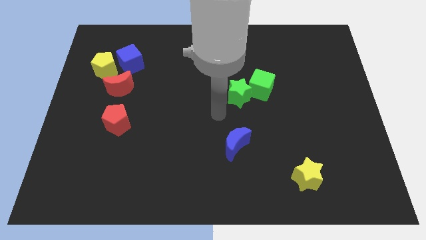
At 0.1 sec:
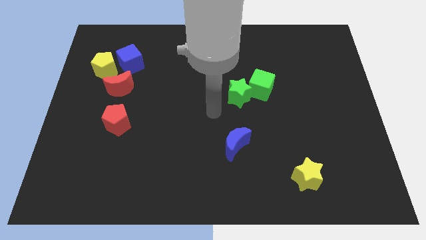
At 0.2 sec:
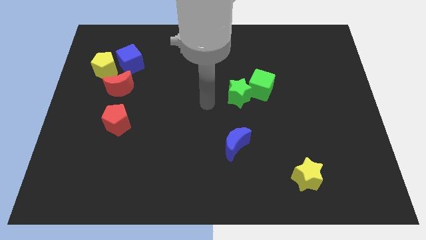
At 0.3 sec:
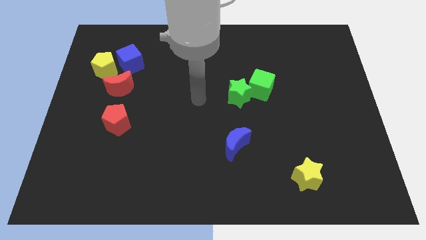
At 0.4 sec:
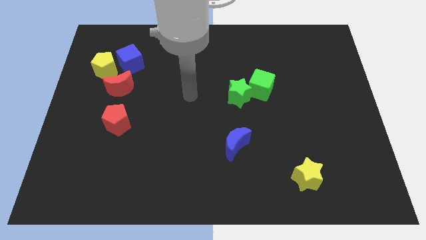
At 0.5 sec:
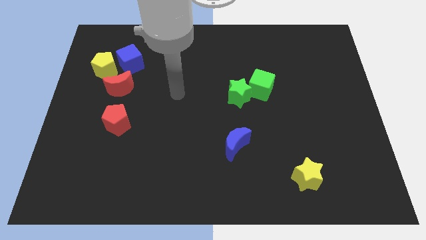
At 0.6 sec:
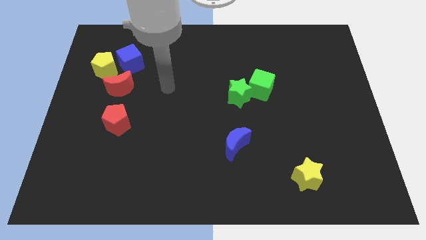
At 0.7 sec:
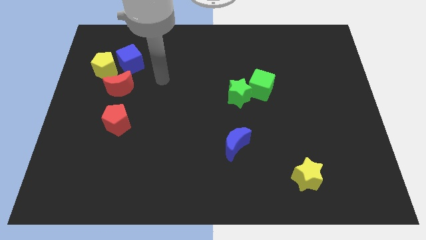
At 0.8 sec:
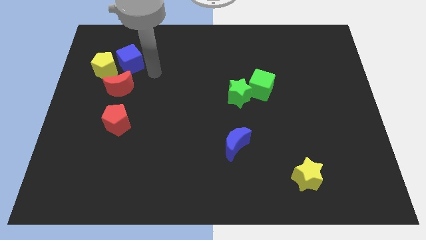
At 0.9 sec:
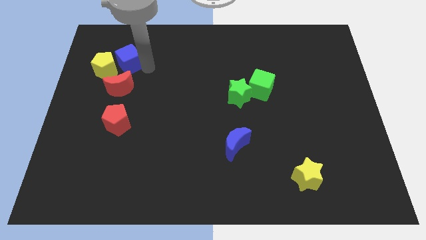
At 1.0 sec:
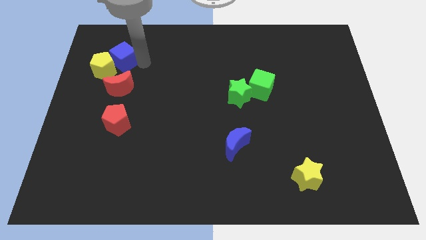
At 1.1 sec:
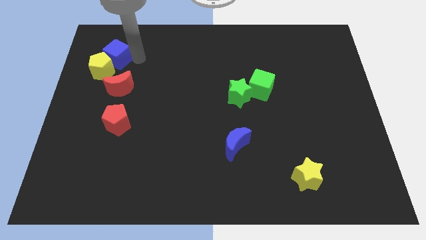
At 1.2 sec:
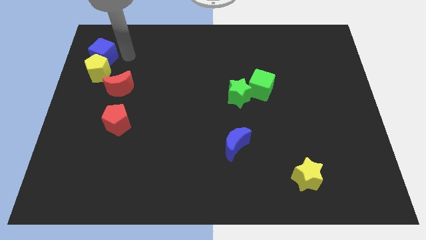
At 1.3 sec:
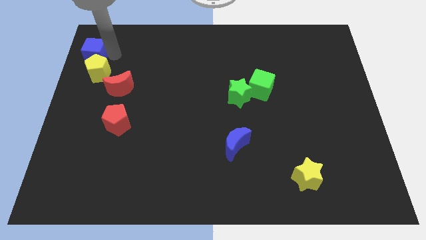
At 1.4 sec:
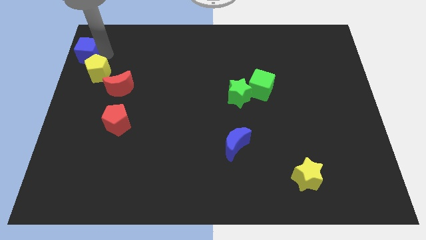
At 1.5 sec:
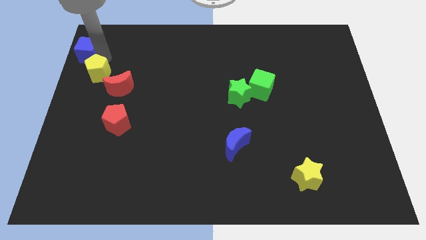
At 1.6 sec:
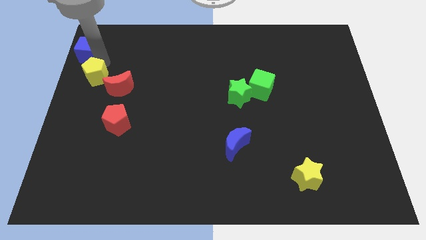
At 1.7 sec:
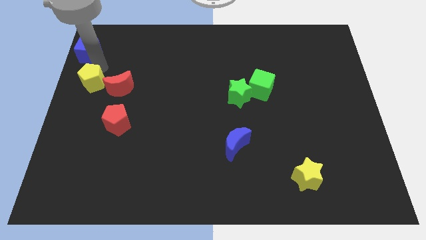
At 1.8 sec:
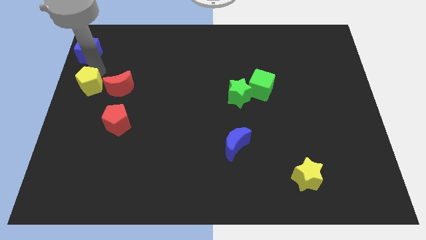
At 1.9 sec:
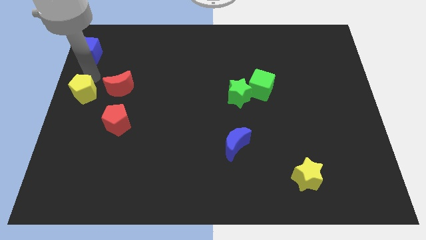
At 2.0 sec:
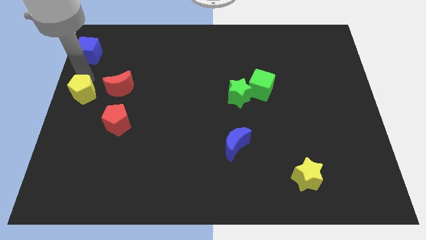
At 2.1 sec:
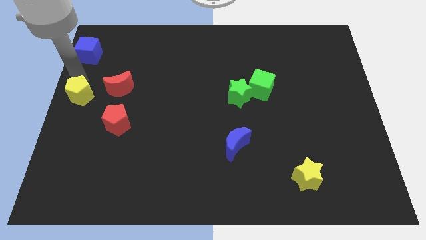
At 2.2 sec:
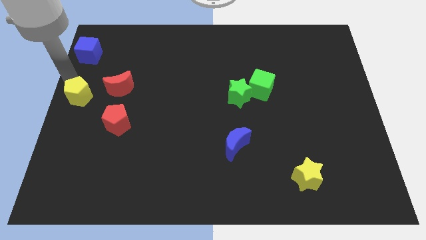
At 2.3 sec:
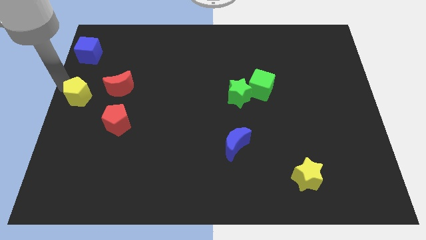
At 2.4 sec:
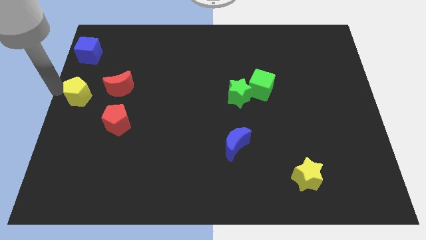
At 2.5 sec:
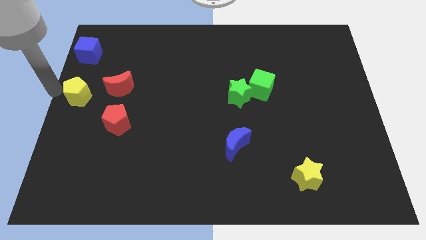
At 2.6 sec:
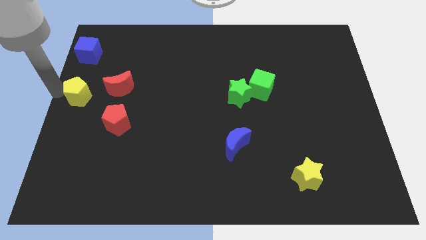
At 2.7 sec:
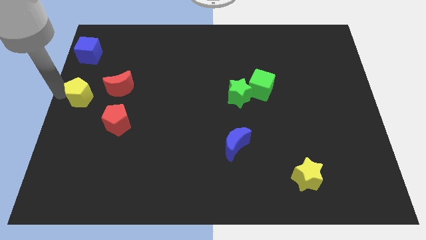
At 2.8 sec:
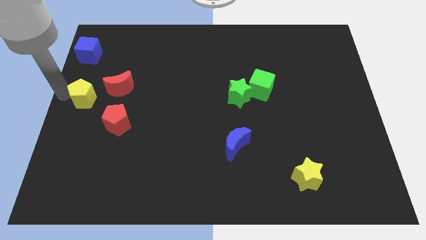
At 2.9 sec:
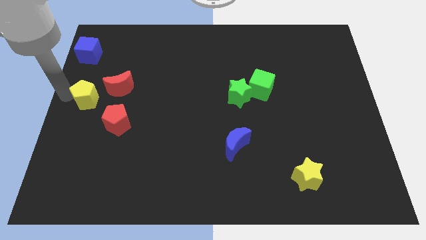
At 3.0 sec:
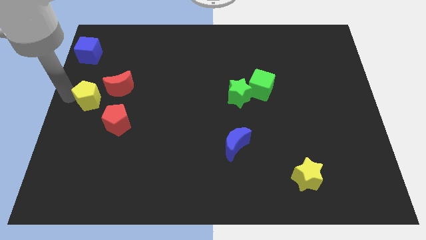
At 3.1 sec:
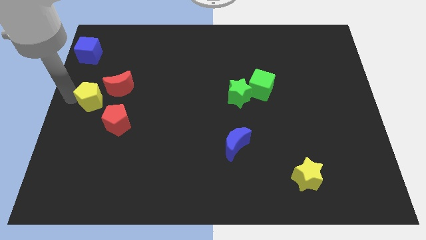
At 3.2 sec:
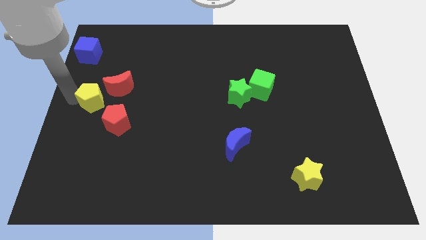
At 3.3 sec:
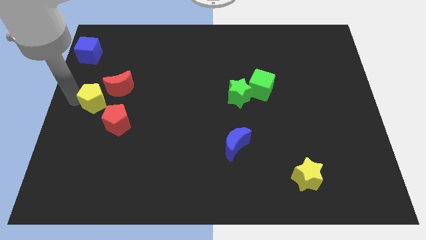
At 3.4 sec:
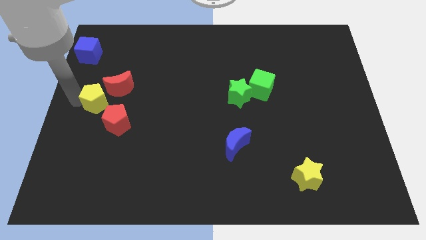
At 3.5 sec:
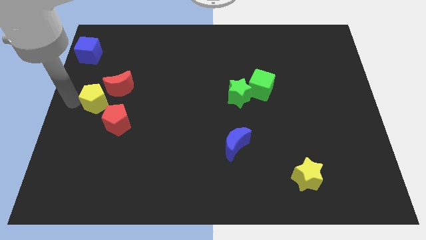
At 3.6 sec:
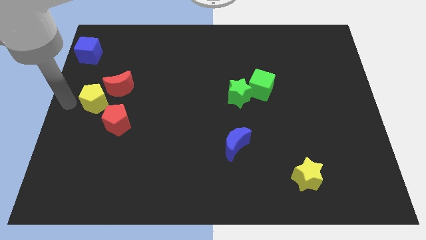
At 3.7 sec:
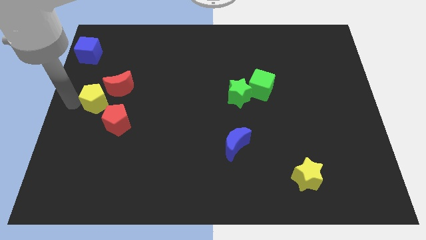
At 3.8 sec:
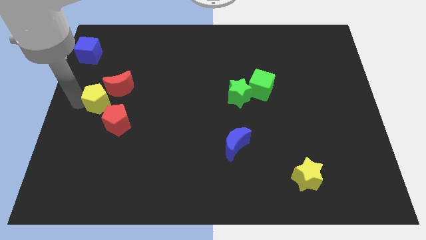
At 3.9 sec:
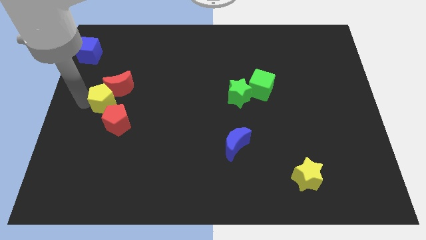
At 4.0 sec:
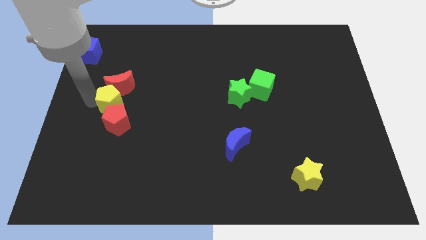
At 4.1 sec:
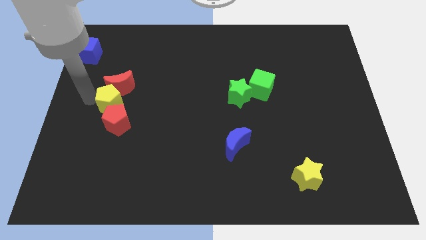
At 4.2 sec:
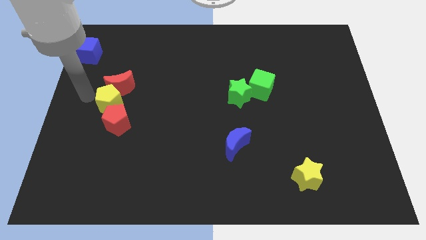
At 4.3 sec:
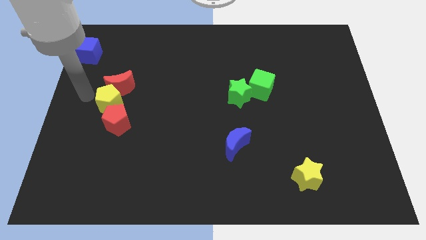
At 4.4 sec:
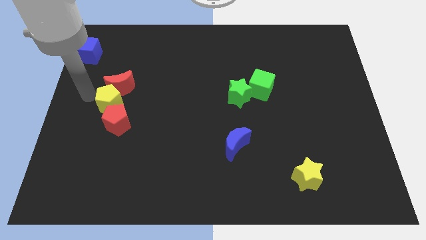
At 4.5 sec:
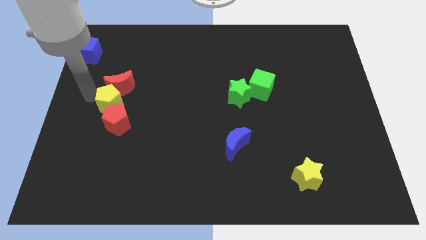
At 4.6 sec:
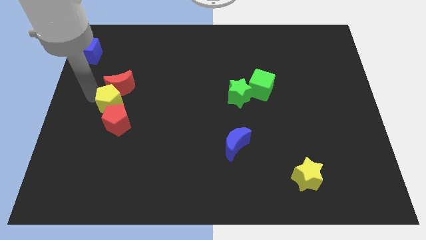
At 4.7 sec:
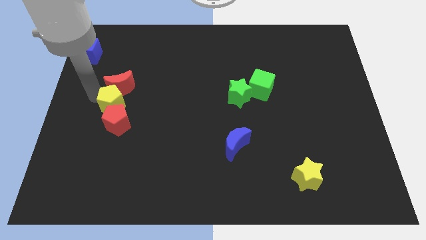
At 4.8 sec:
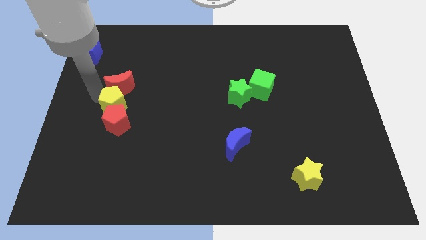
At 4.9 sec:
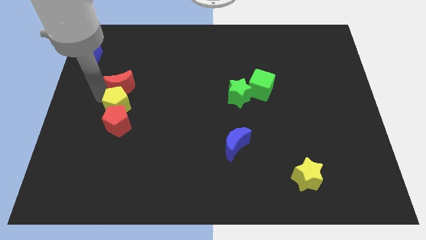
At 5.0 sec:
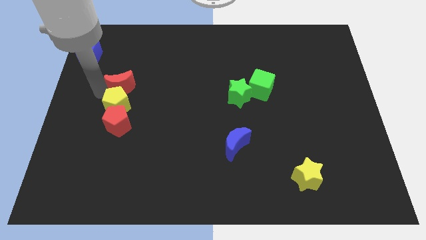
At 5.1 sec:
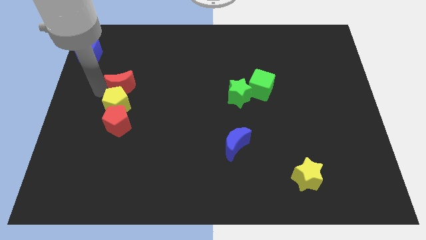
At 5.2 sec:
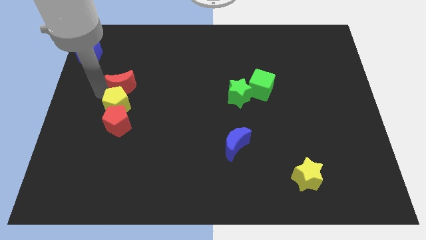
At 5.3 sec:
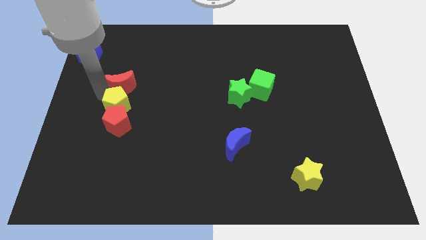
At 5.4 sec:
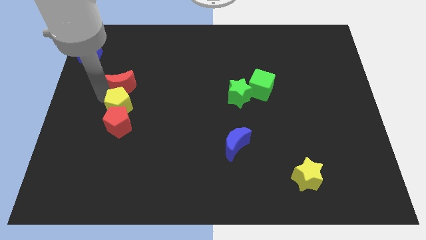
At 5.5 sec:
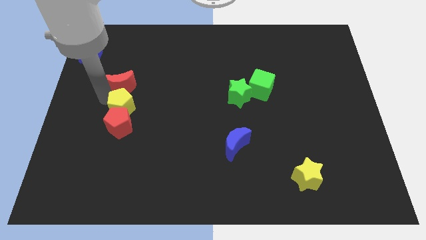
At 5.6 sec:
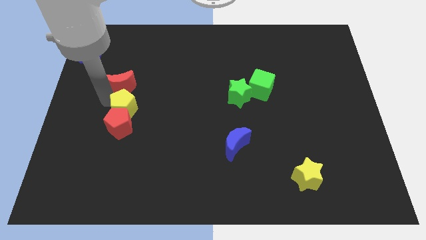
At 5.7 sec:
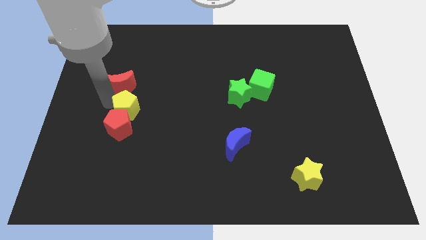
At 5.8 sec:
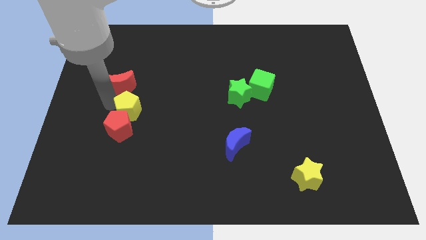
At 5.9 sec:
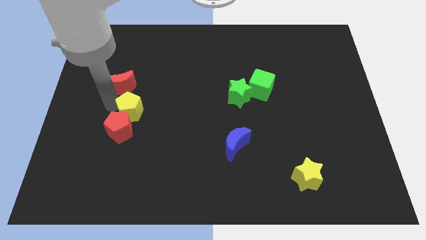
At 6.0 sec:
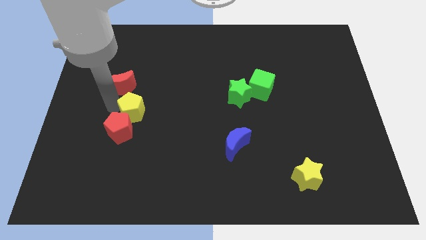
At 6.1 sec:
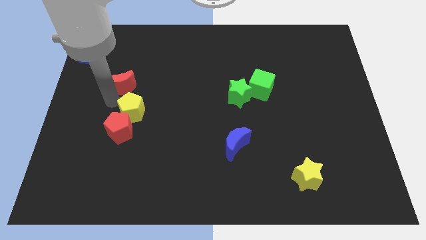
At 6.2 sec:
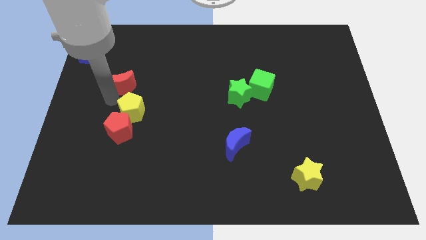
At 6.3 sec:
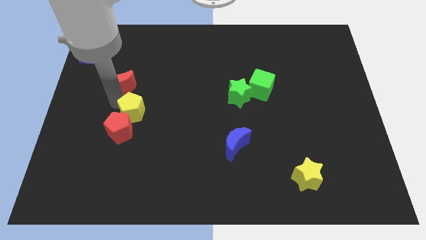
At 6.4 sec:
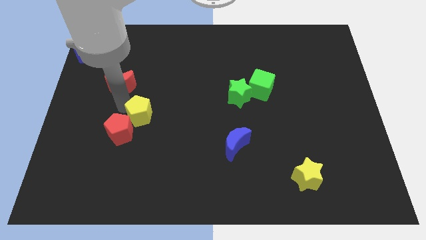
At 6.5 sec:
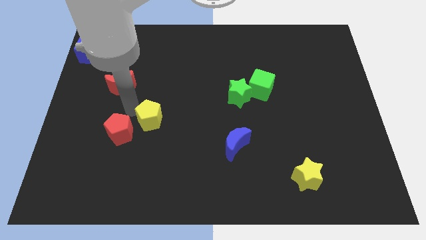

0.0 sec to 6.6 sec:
push the yellow pentagon just right of the red pentagon

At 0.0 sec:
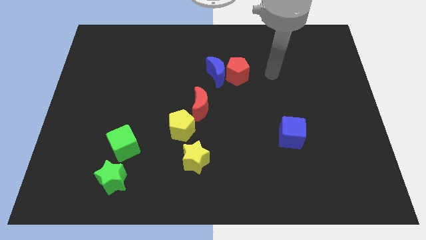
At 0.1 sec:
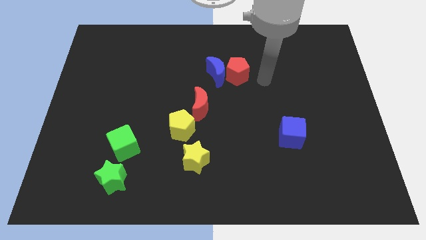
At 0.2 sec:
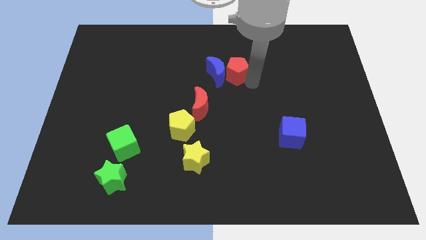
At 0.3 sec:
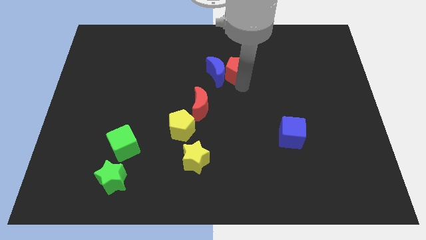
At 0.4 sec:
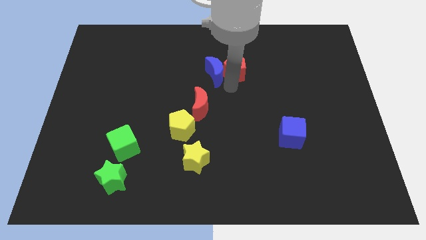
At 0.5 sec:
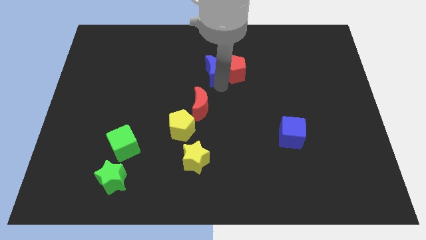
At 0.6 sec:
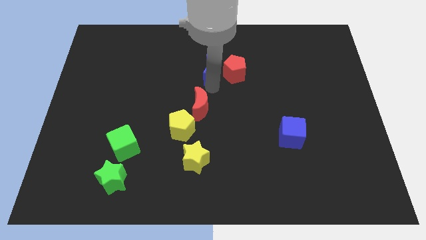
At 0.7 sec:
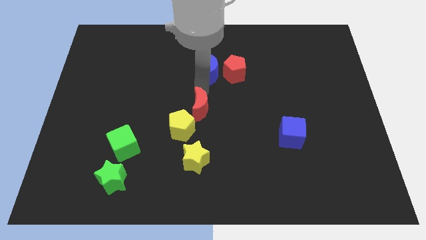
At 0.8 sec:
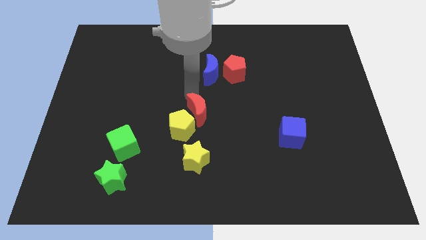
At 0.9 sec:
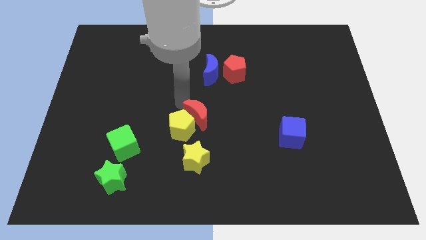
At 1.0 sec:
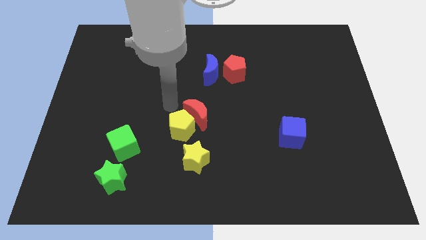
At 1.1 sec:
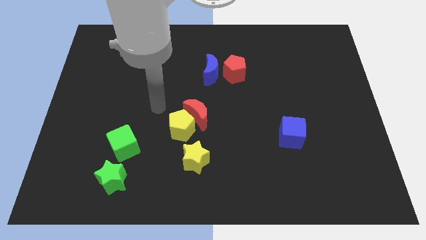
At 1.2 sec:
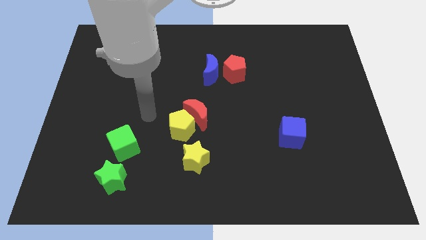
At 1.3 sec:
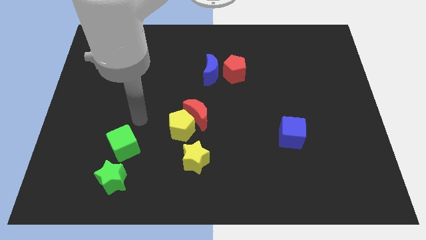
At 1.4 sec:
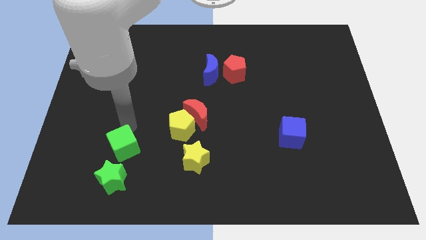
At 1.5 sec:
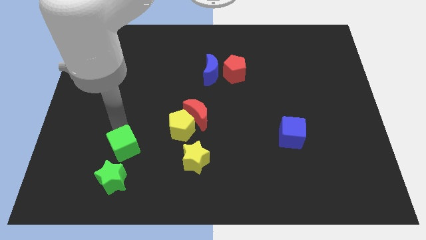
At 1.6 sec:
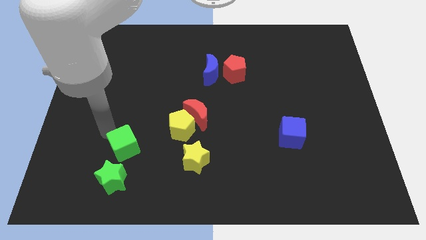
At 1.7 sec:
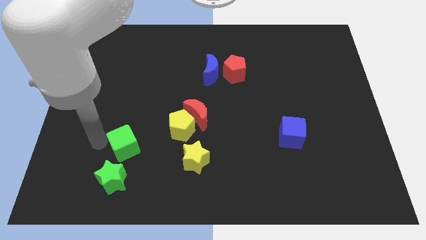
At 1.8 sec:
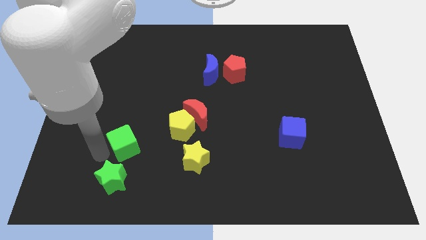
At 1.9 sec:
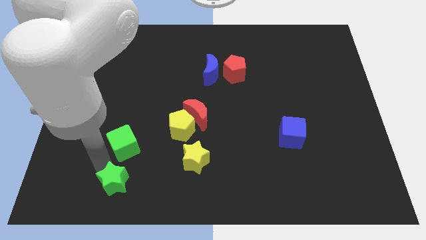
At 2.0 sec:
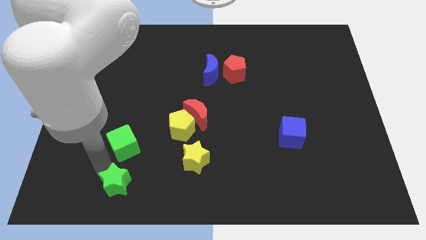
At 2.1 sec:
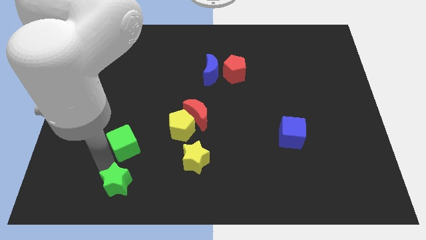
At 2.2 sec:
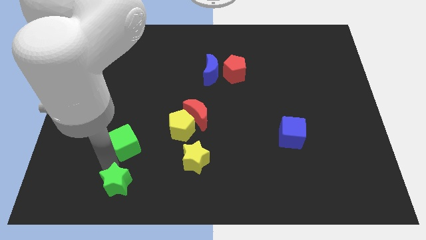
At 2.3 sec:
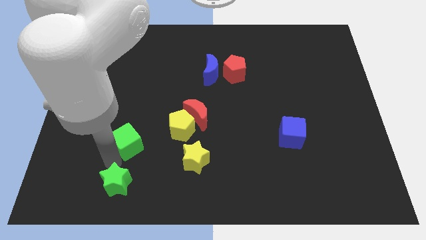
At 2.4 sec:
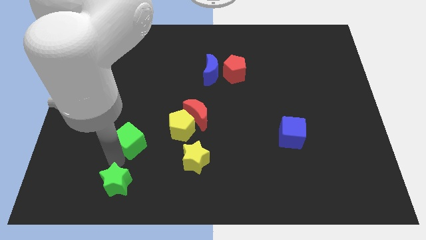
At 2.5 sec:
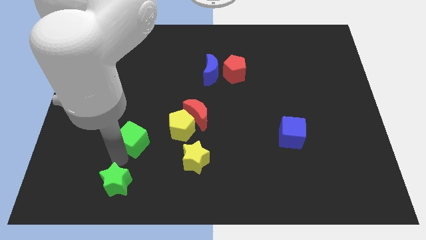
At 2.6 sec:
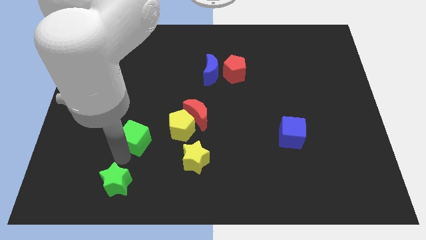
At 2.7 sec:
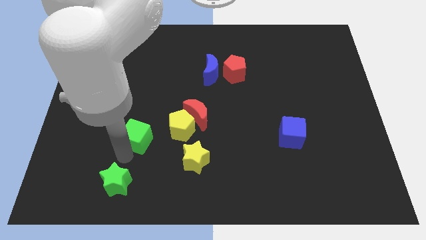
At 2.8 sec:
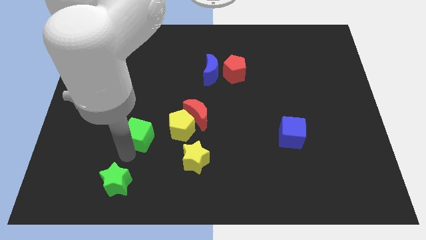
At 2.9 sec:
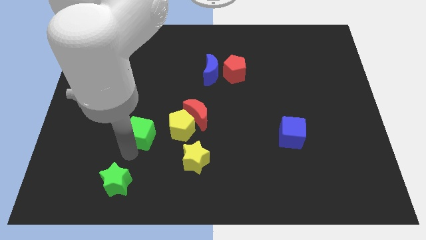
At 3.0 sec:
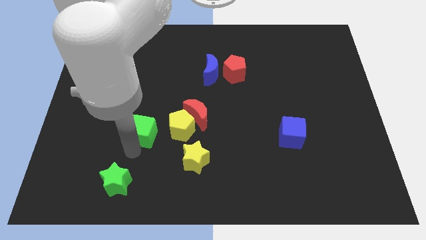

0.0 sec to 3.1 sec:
move the green cube left of the red moon
